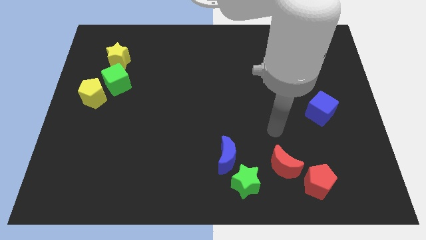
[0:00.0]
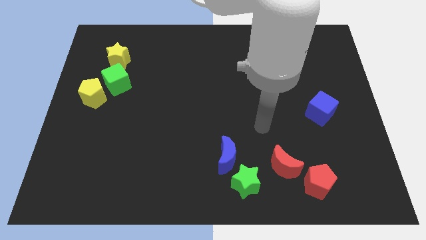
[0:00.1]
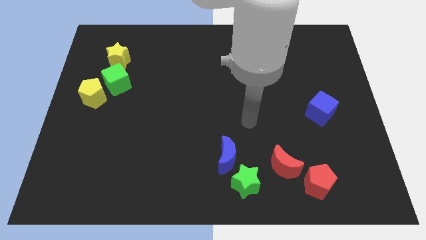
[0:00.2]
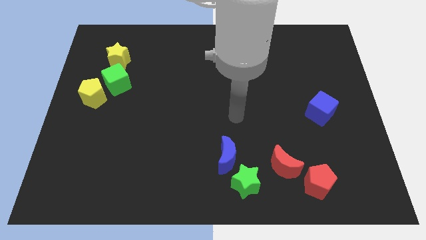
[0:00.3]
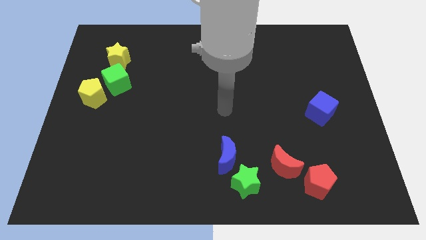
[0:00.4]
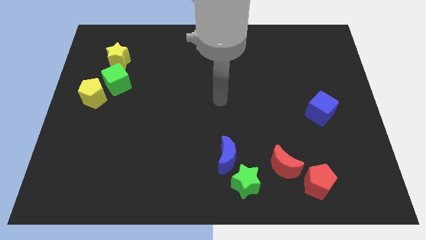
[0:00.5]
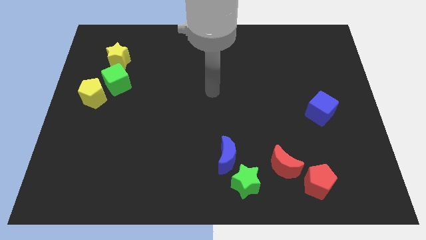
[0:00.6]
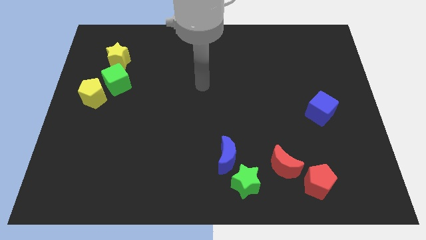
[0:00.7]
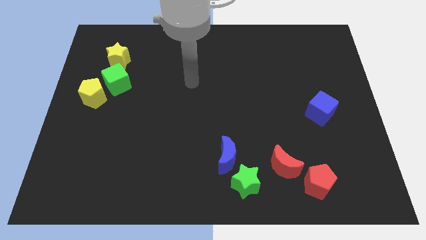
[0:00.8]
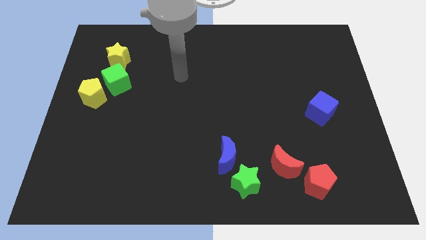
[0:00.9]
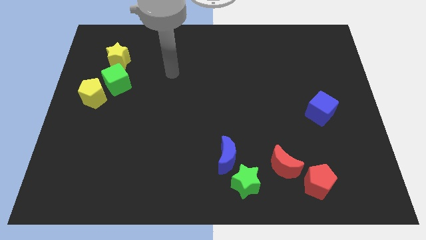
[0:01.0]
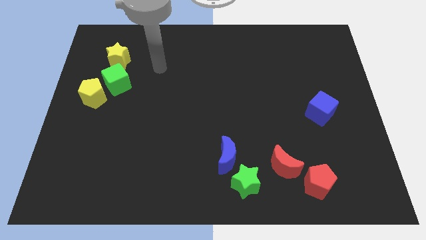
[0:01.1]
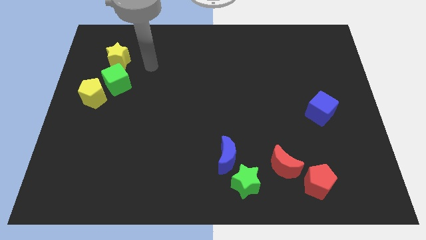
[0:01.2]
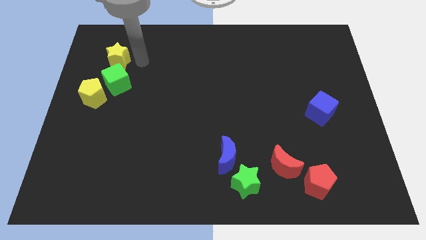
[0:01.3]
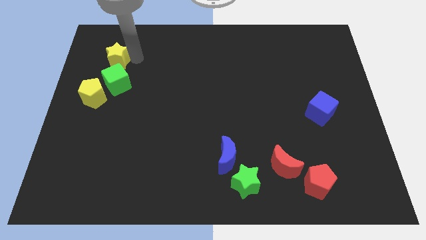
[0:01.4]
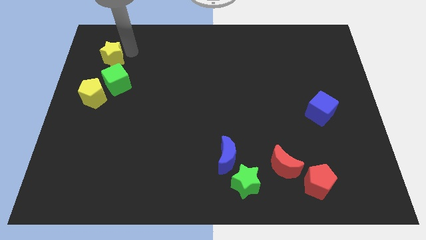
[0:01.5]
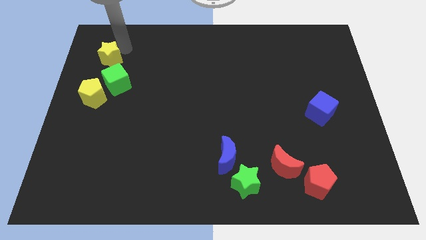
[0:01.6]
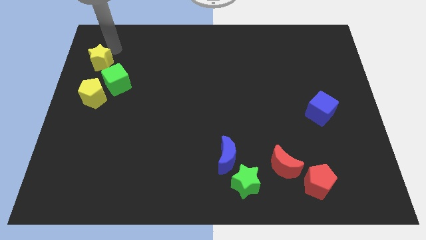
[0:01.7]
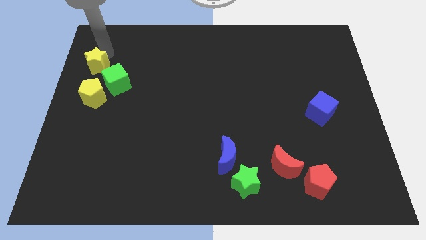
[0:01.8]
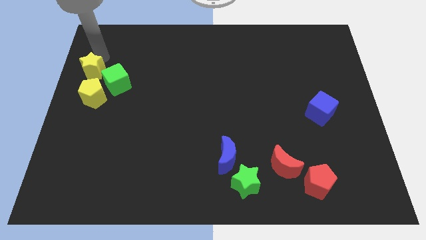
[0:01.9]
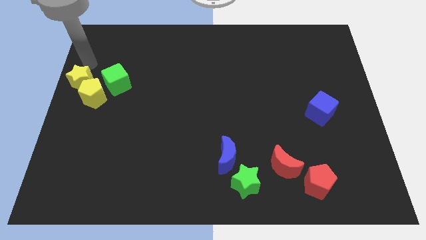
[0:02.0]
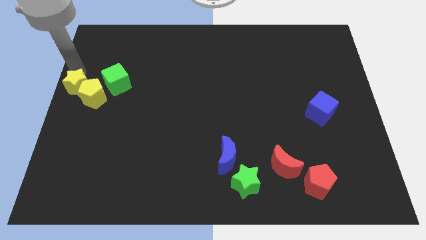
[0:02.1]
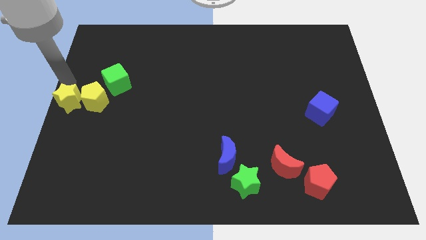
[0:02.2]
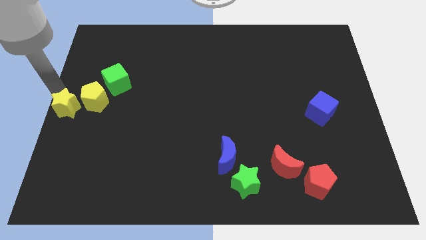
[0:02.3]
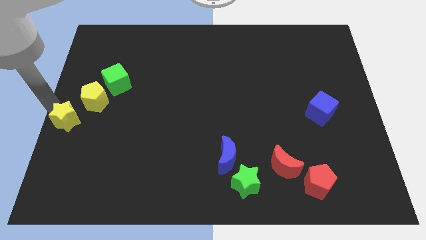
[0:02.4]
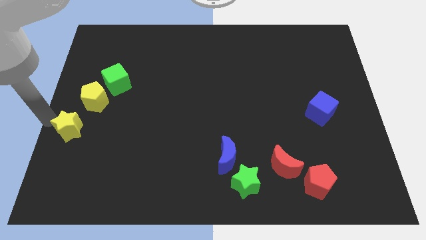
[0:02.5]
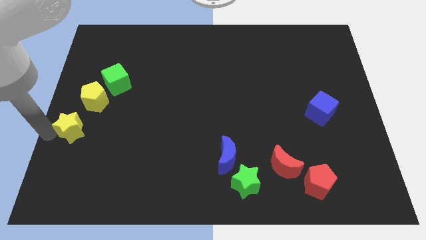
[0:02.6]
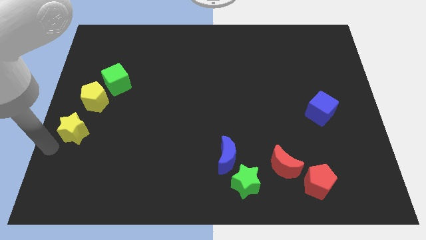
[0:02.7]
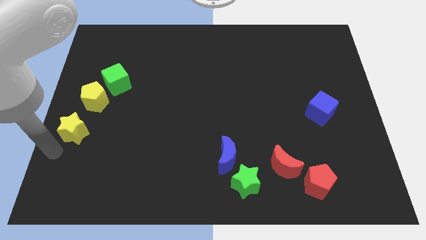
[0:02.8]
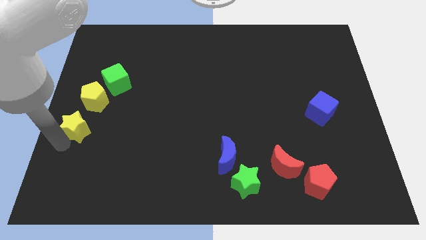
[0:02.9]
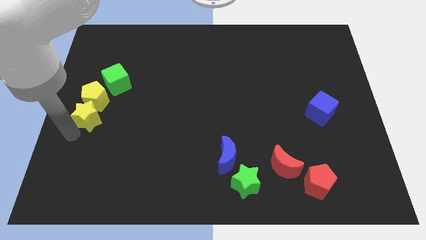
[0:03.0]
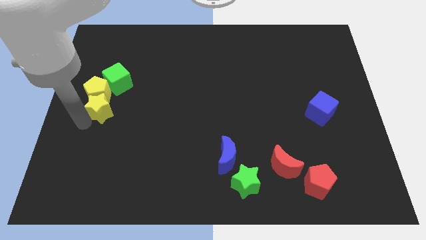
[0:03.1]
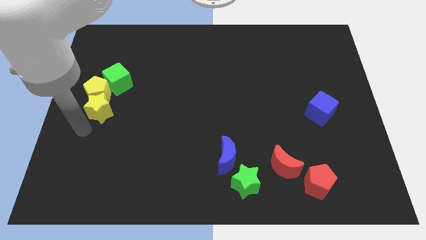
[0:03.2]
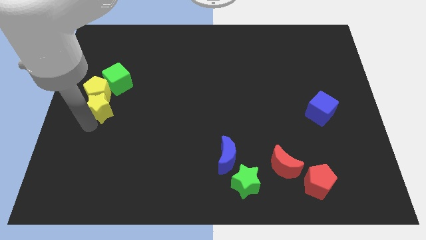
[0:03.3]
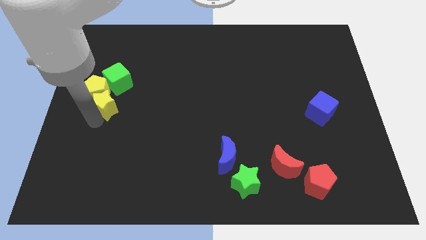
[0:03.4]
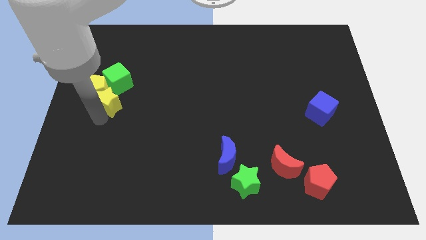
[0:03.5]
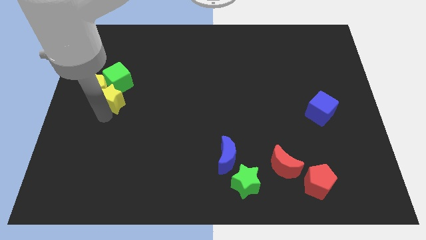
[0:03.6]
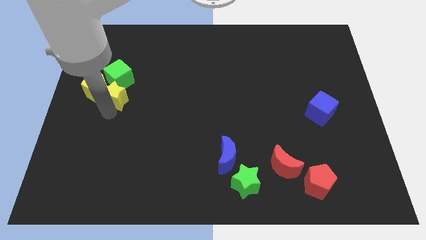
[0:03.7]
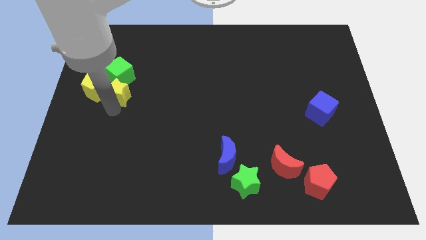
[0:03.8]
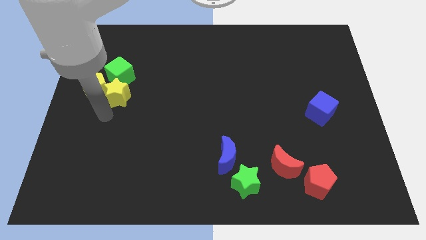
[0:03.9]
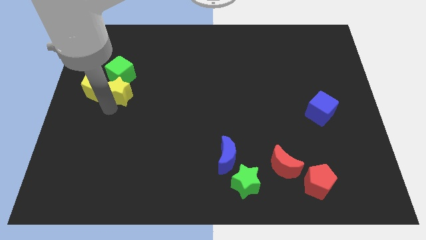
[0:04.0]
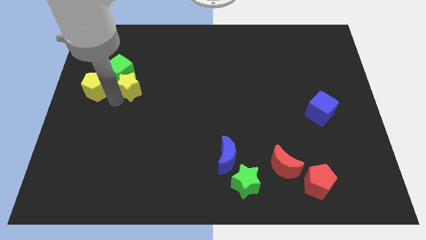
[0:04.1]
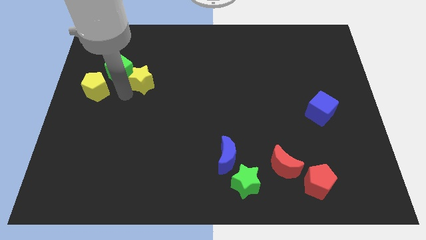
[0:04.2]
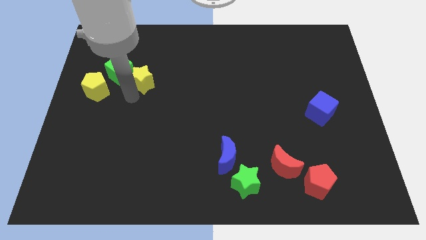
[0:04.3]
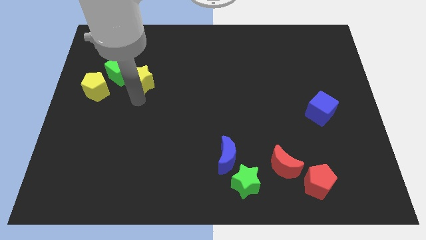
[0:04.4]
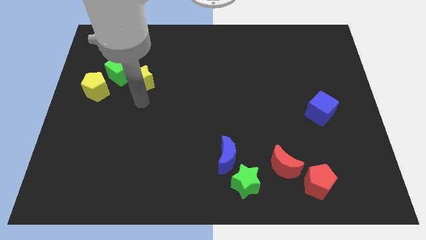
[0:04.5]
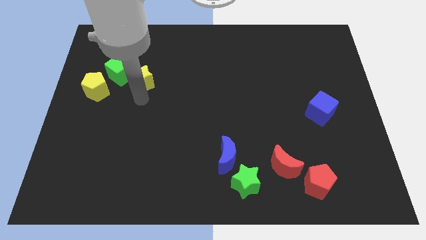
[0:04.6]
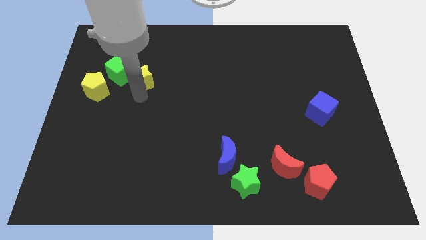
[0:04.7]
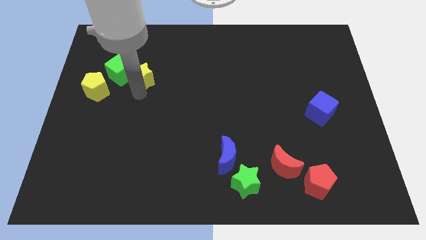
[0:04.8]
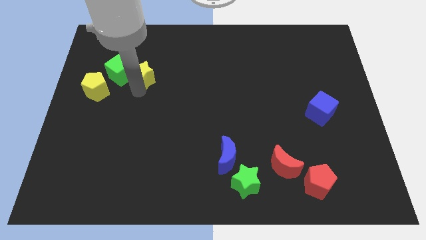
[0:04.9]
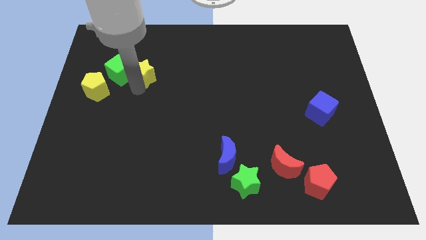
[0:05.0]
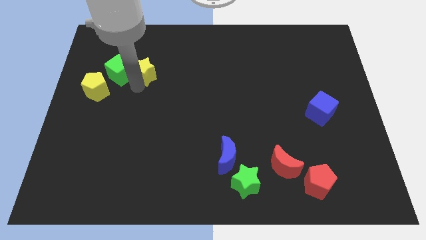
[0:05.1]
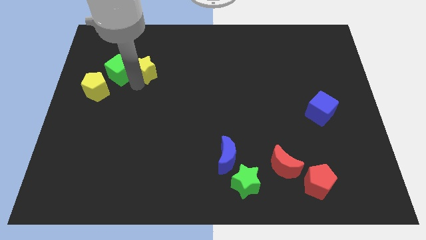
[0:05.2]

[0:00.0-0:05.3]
push the yellow star a little to the right

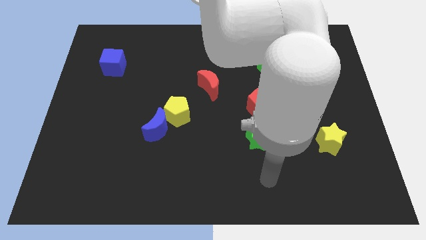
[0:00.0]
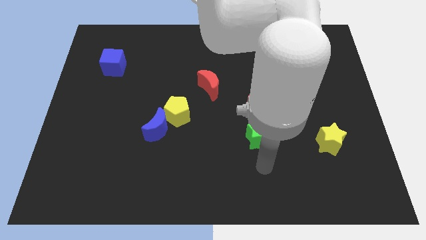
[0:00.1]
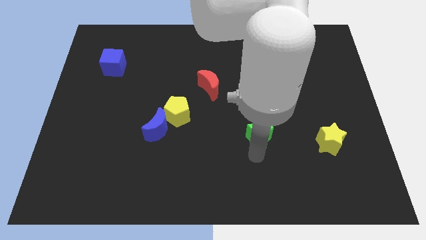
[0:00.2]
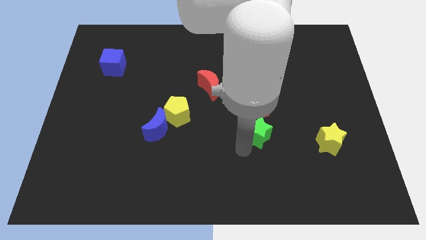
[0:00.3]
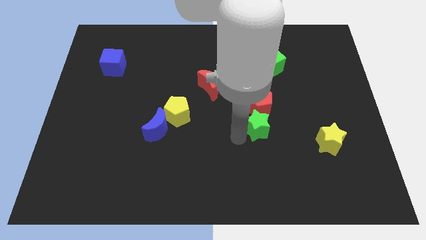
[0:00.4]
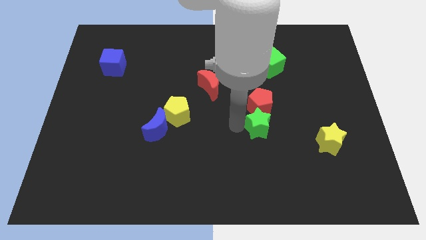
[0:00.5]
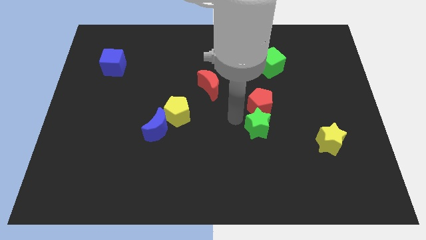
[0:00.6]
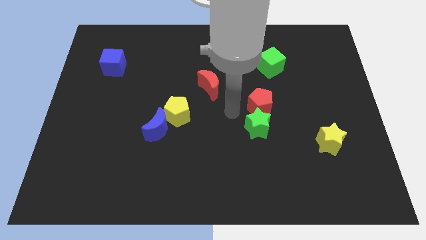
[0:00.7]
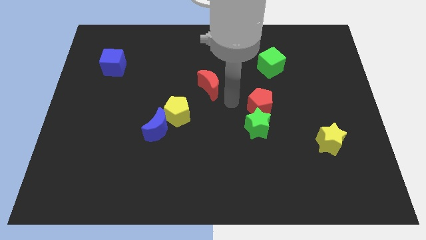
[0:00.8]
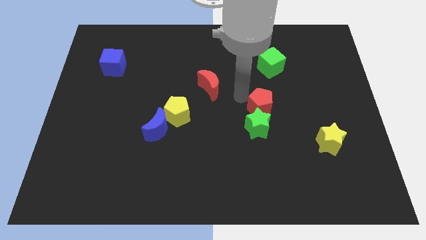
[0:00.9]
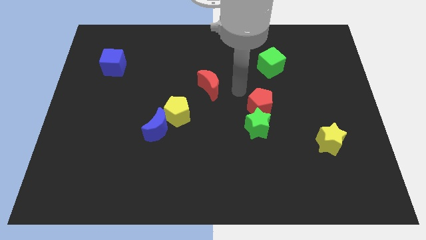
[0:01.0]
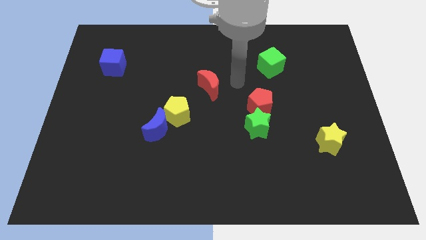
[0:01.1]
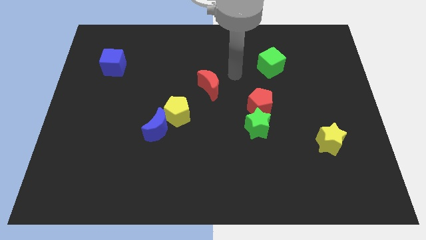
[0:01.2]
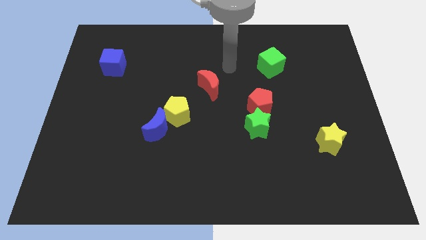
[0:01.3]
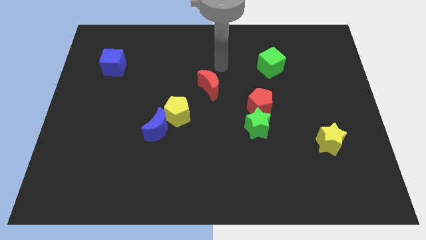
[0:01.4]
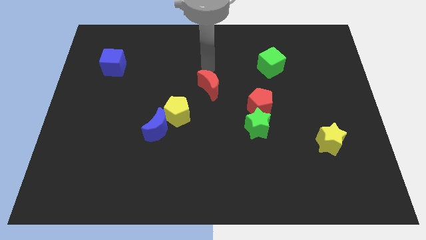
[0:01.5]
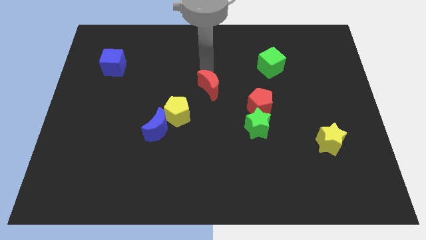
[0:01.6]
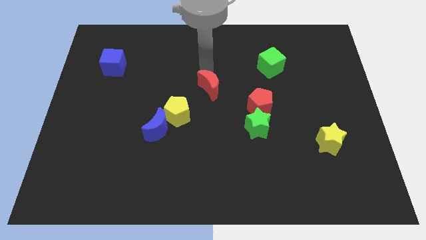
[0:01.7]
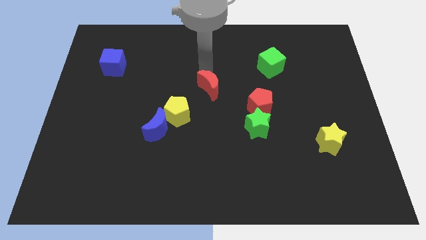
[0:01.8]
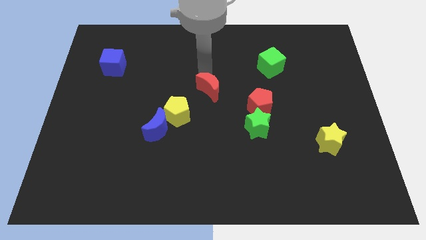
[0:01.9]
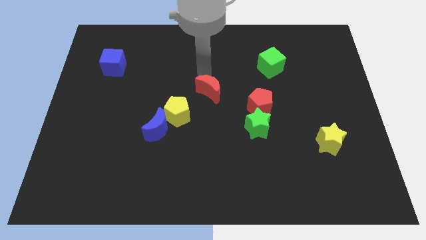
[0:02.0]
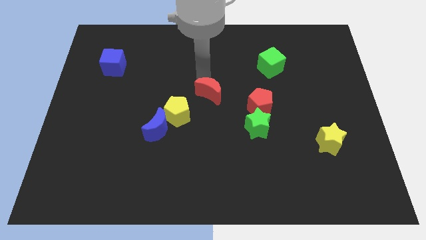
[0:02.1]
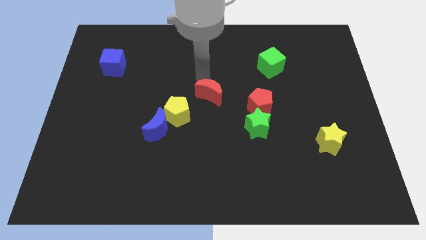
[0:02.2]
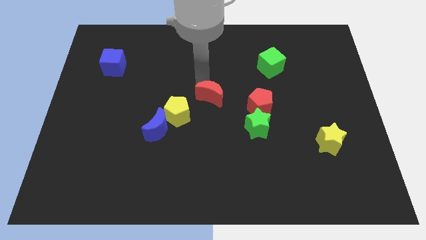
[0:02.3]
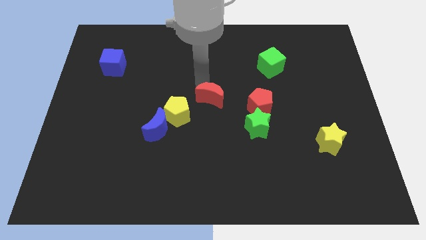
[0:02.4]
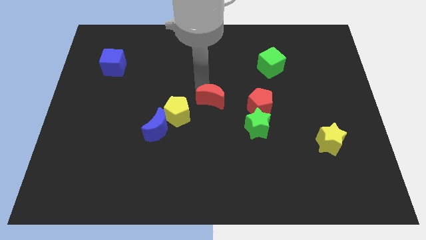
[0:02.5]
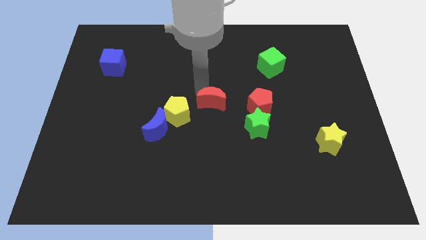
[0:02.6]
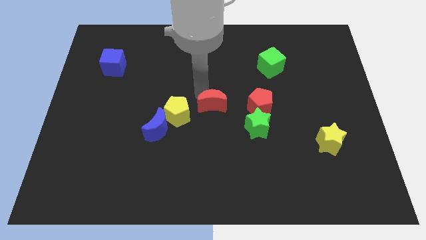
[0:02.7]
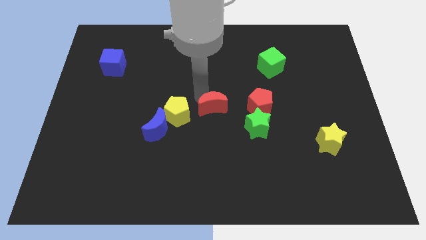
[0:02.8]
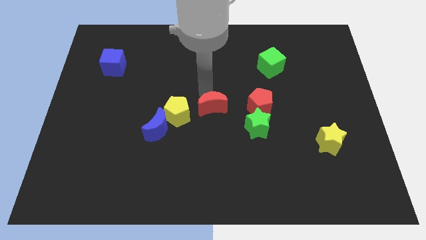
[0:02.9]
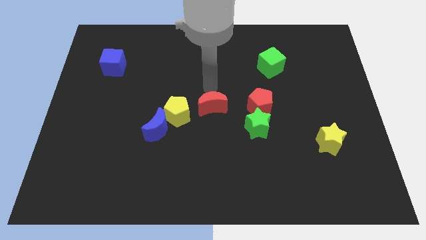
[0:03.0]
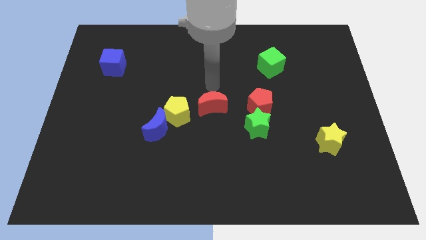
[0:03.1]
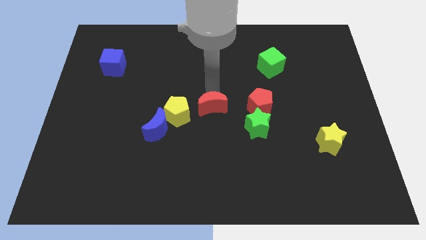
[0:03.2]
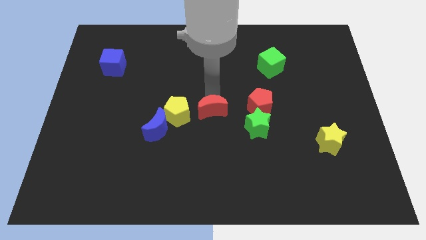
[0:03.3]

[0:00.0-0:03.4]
slide the red moon downwards a bit
